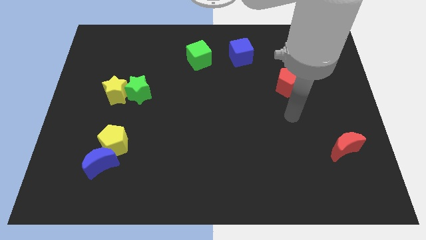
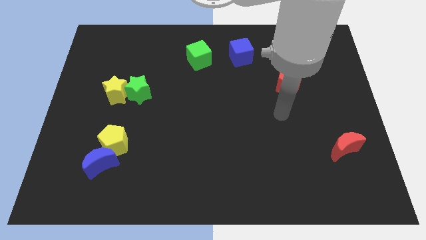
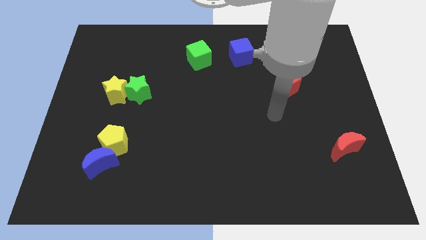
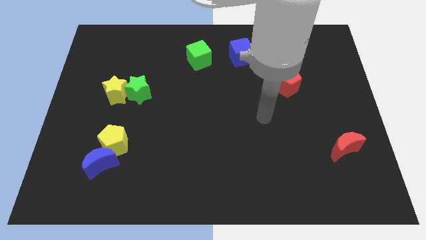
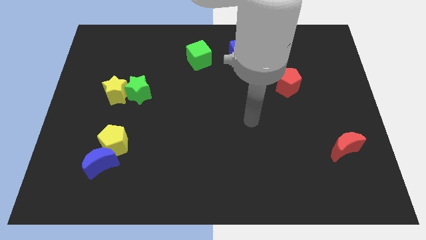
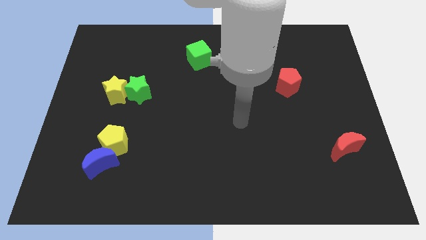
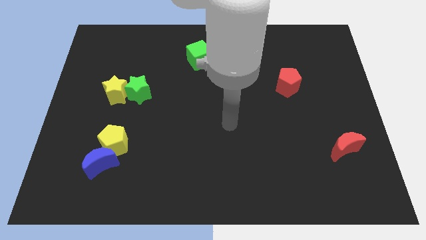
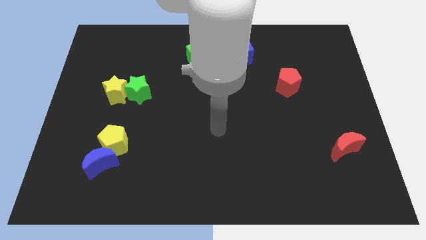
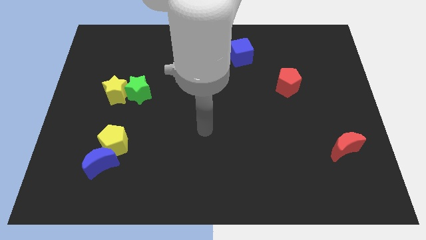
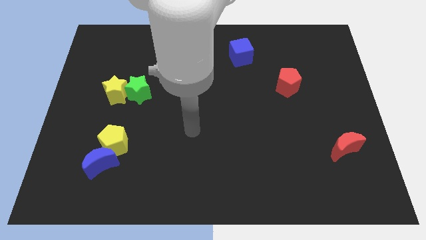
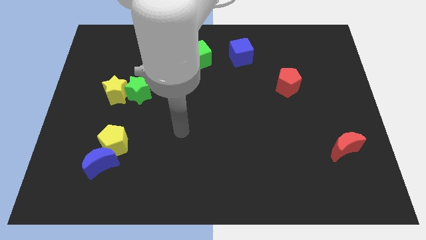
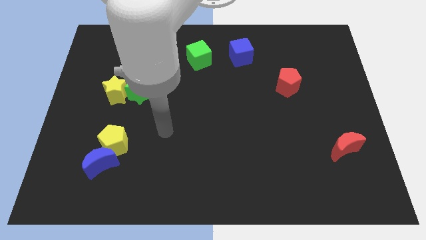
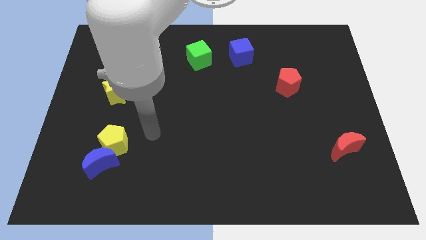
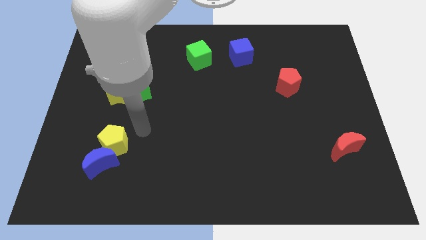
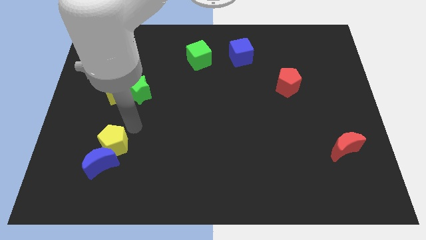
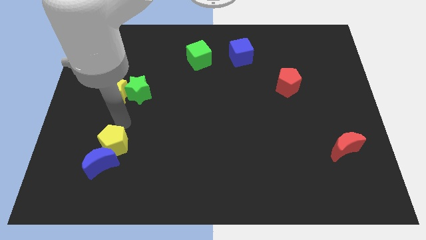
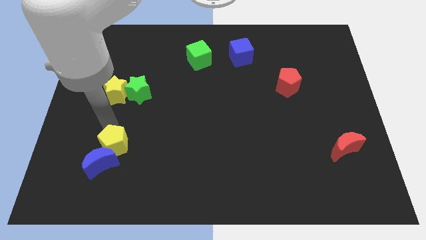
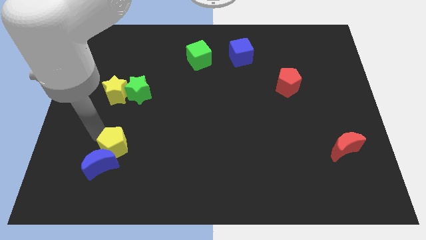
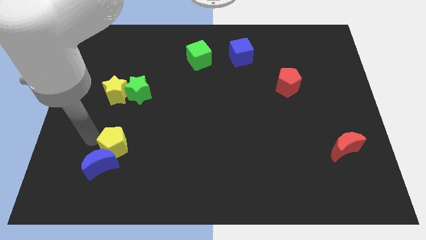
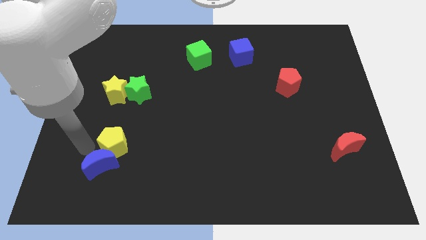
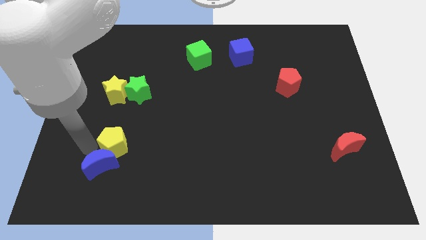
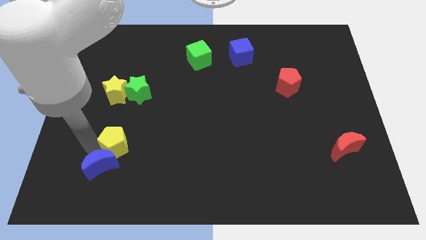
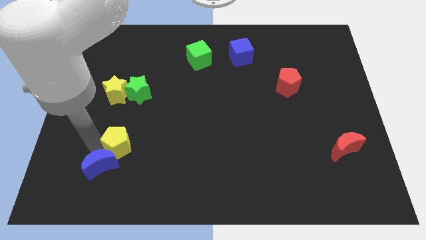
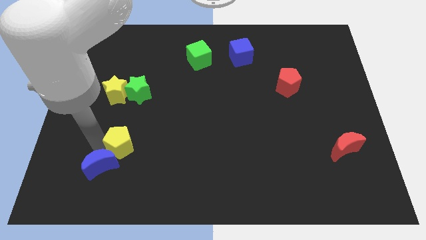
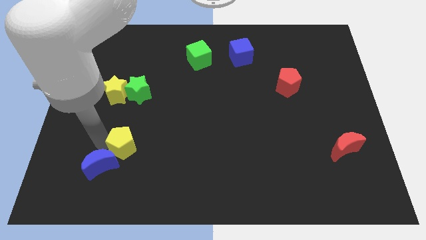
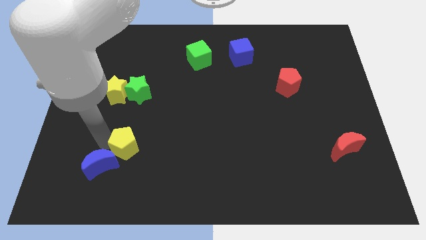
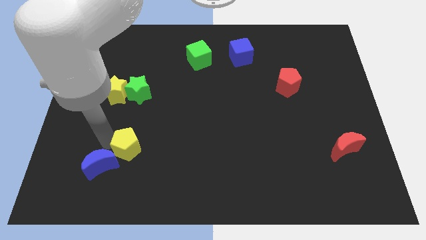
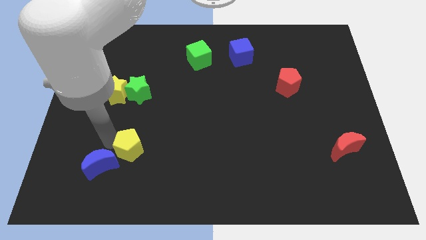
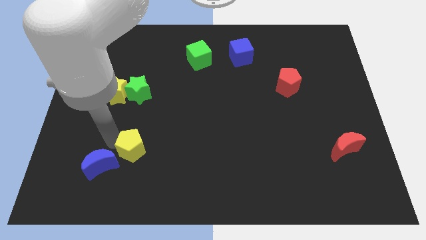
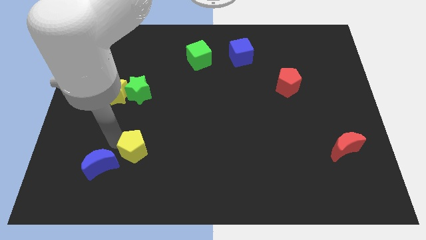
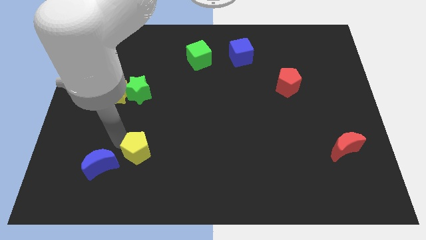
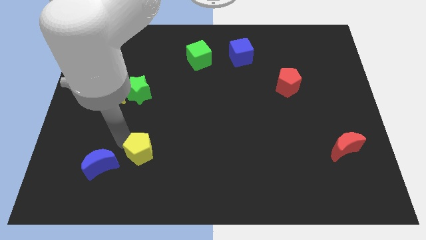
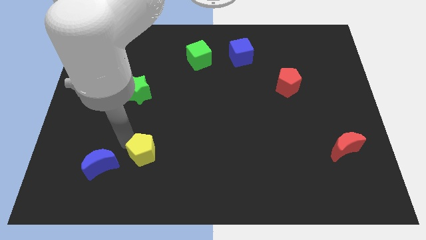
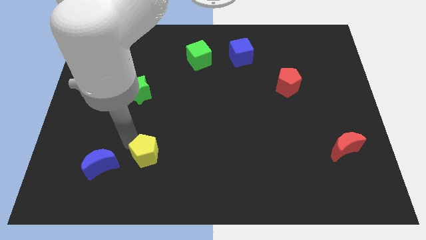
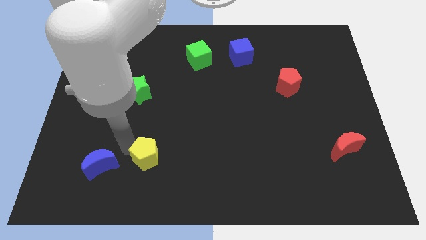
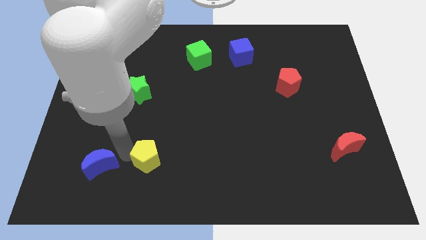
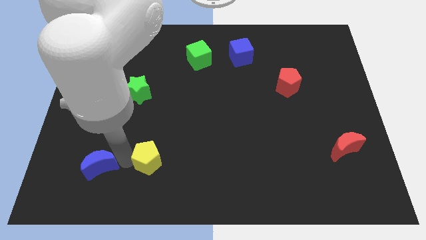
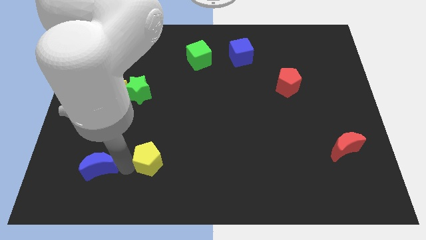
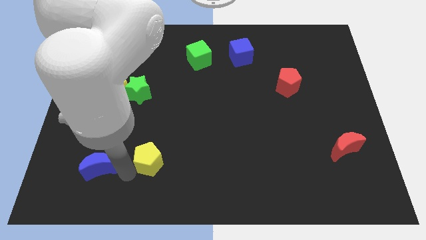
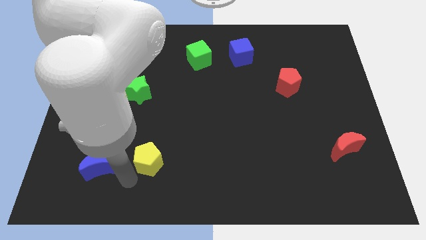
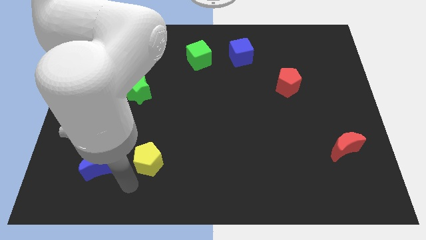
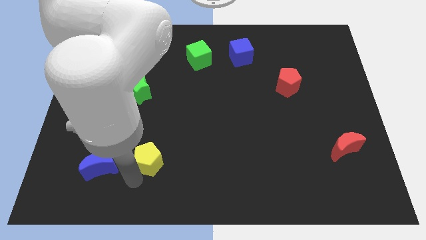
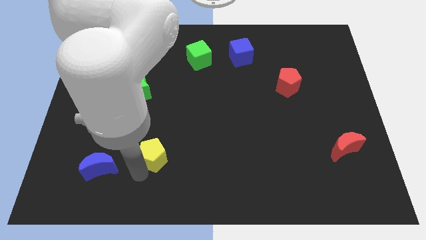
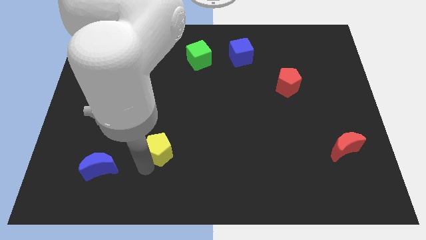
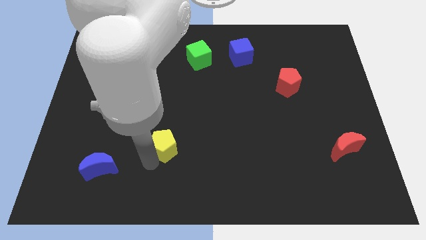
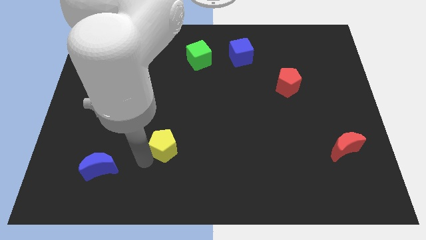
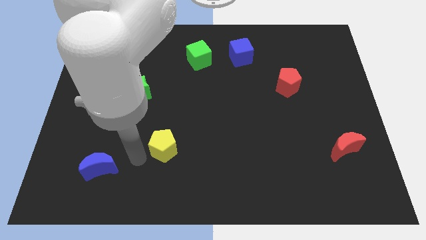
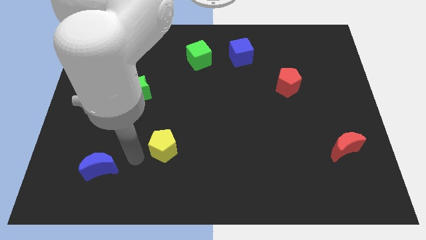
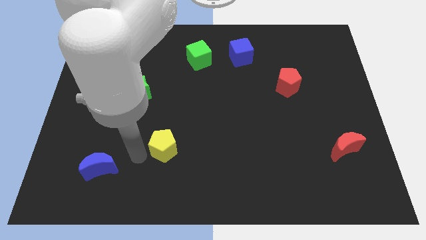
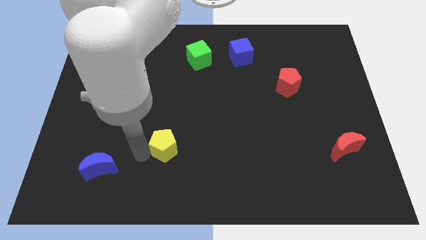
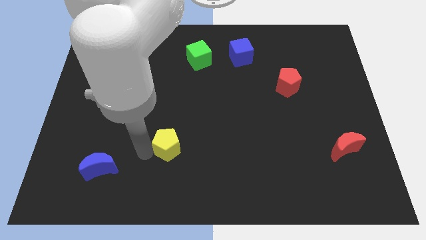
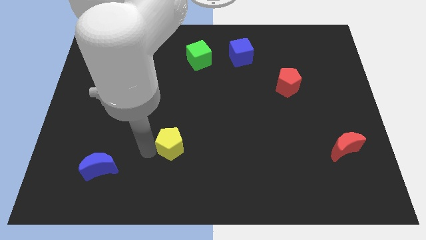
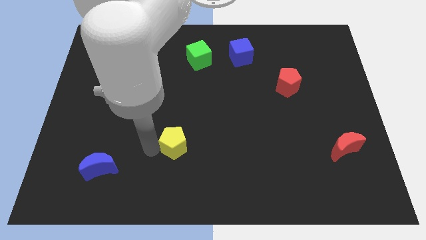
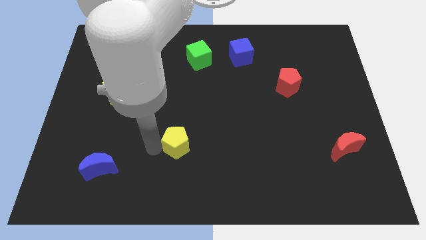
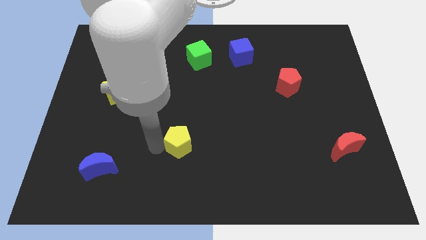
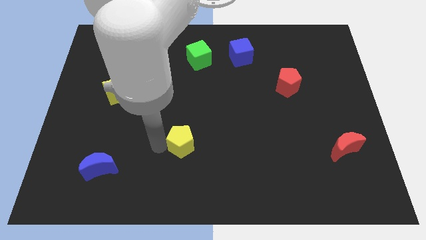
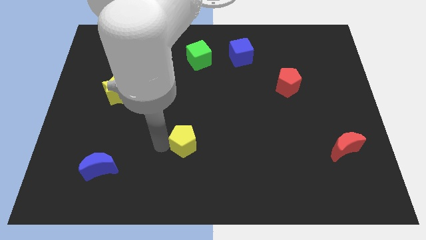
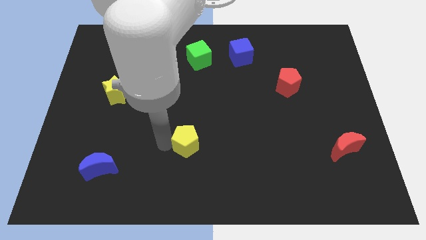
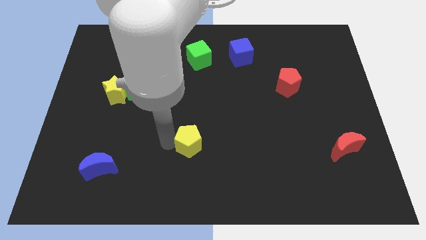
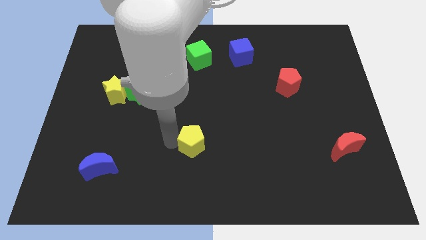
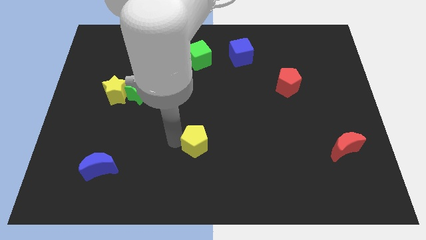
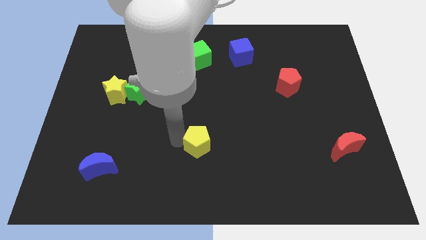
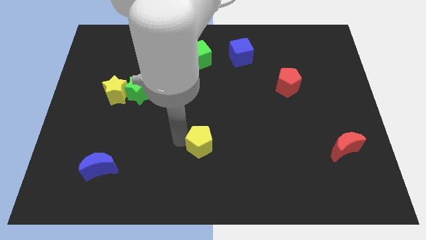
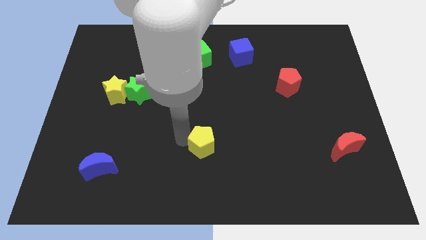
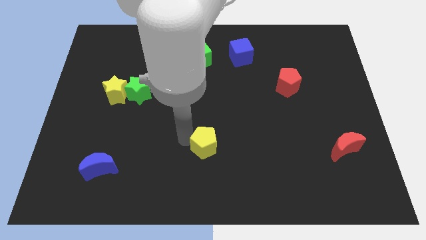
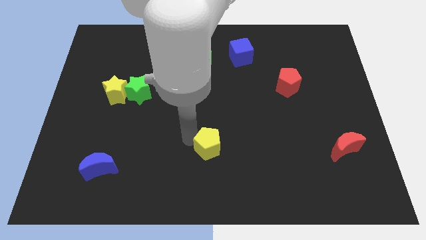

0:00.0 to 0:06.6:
push the yellow pentagon right

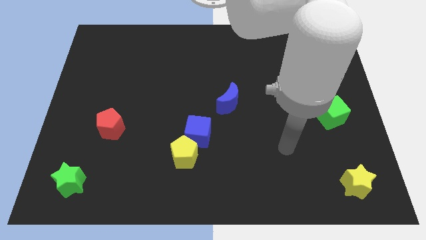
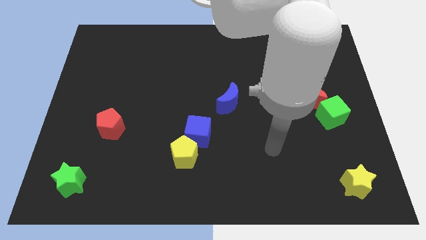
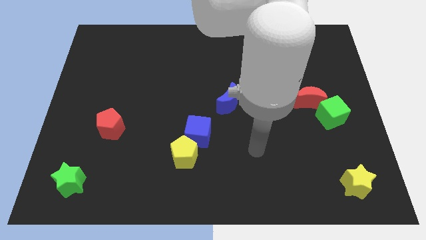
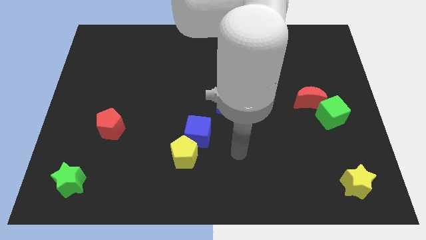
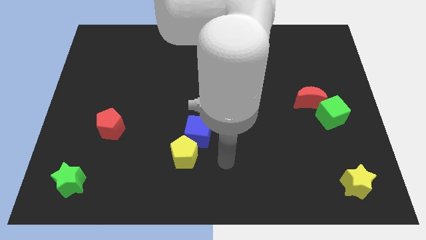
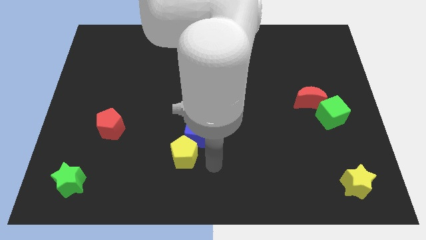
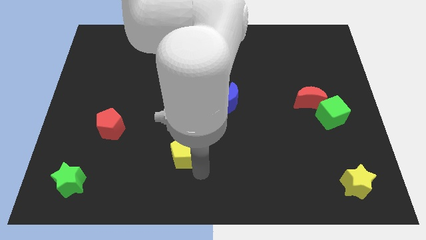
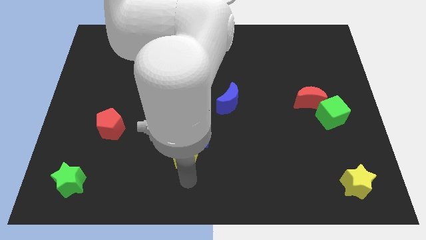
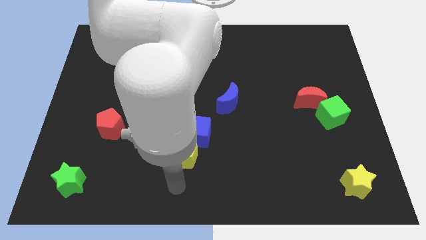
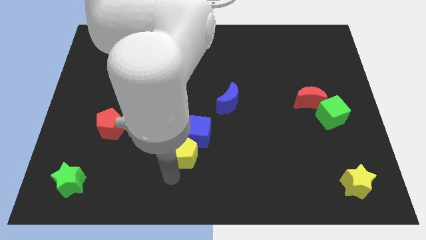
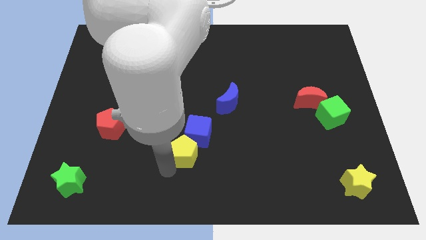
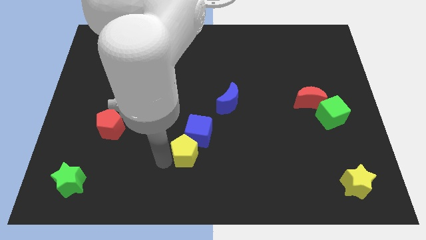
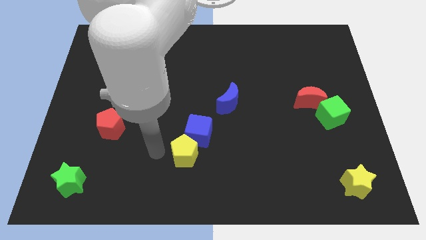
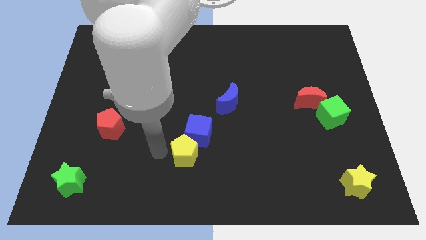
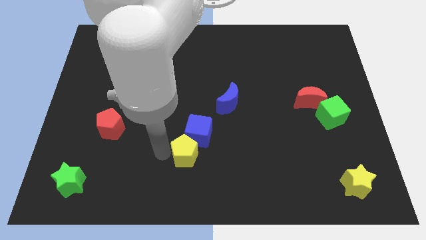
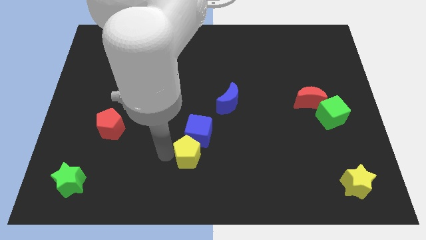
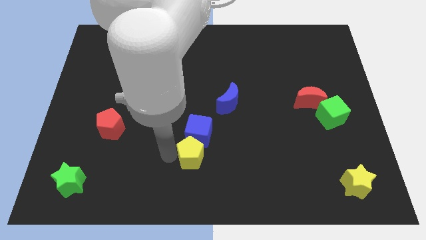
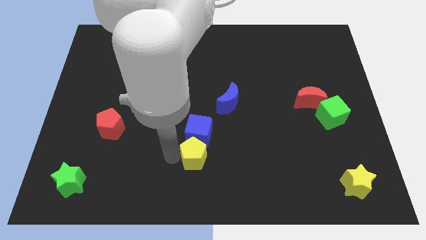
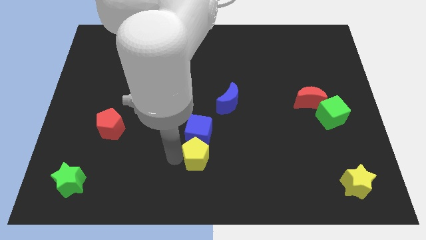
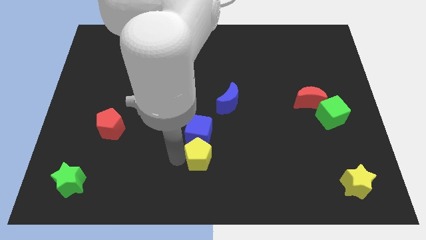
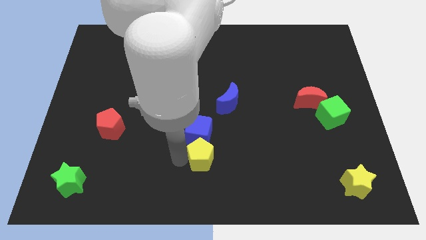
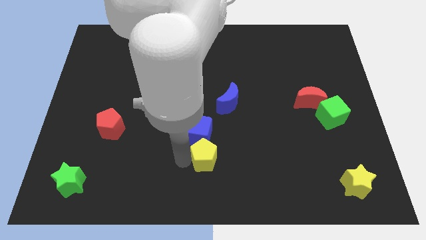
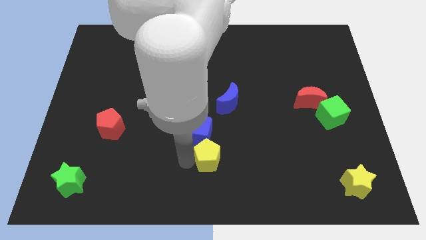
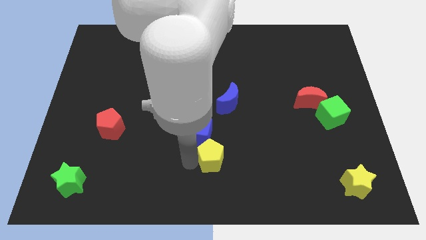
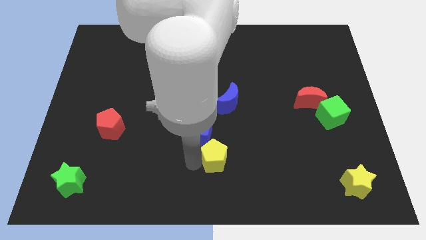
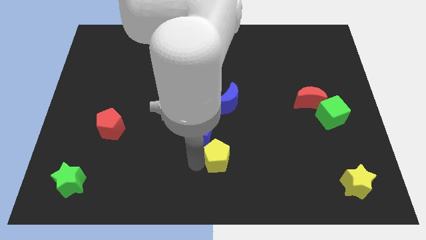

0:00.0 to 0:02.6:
push the yellow pentagon to the right a little bit
